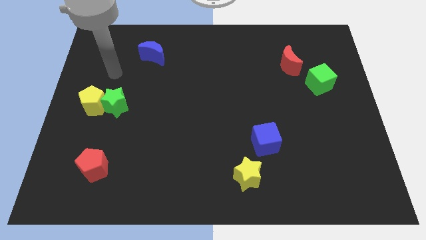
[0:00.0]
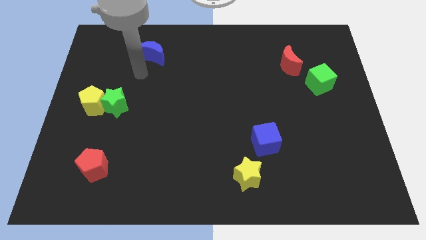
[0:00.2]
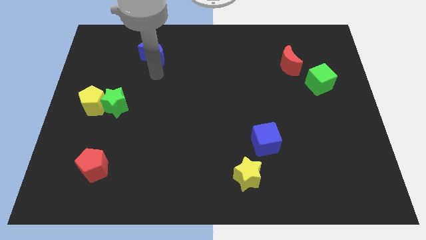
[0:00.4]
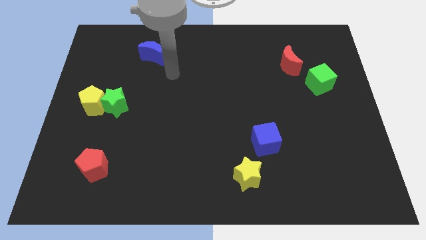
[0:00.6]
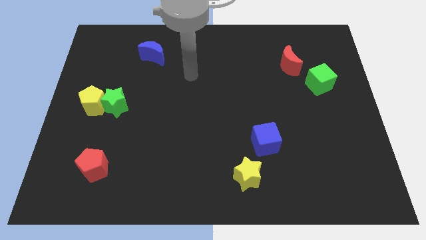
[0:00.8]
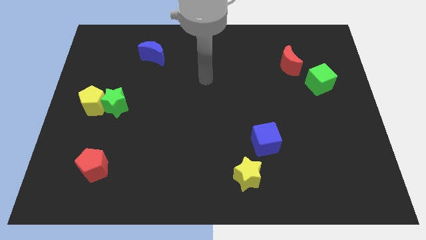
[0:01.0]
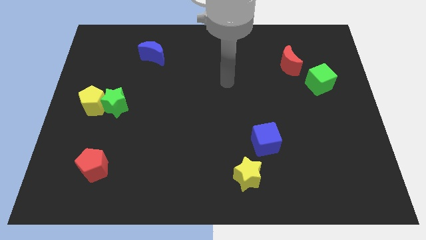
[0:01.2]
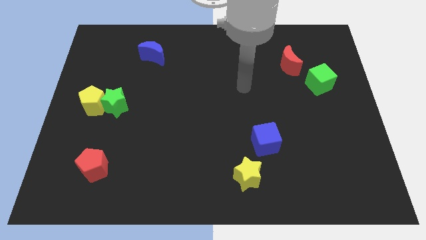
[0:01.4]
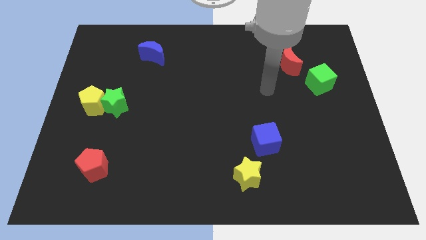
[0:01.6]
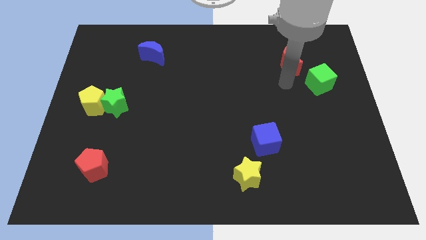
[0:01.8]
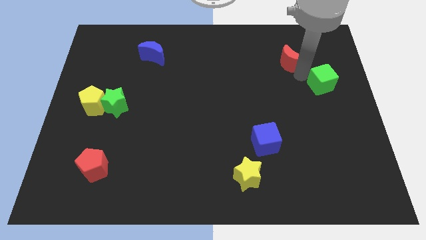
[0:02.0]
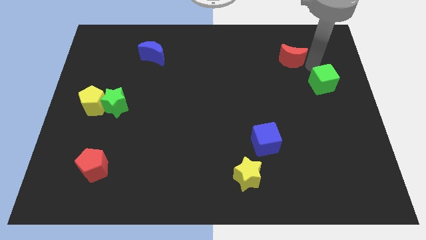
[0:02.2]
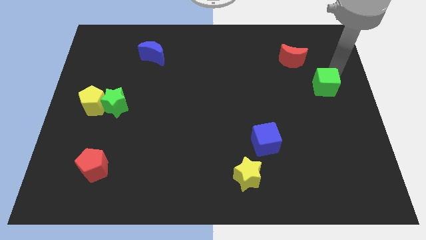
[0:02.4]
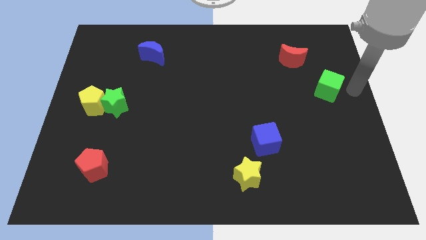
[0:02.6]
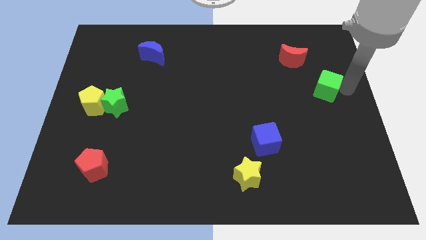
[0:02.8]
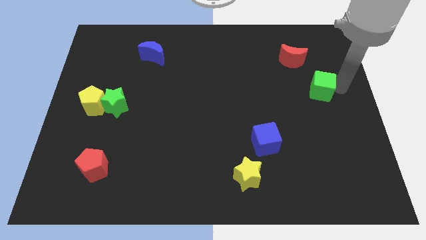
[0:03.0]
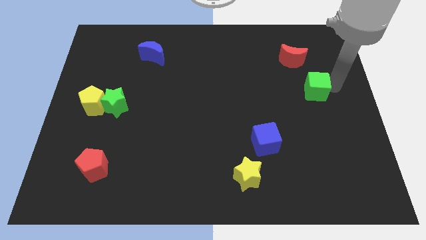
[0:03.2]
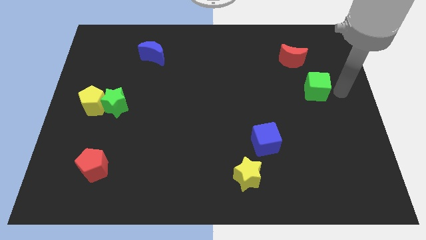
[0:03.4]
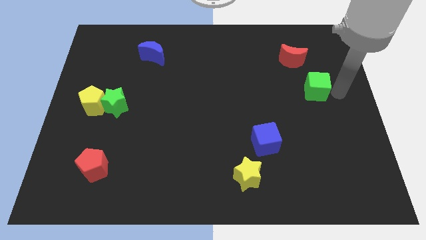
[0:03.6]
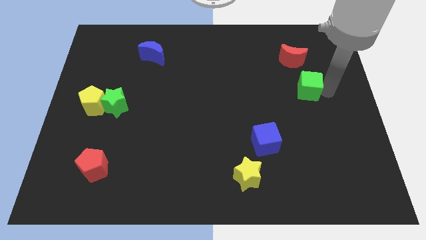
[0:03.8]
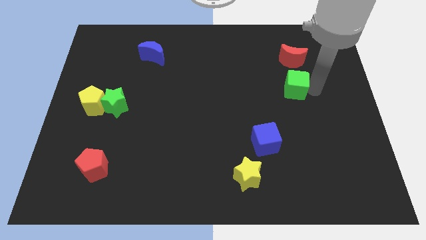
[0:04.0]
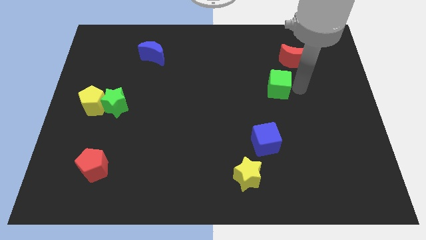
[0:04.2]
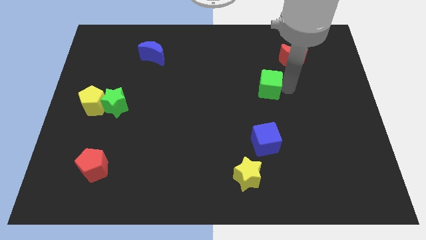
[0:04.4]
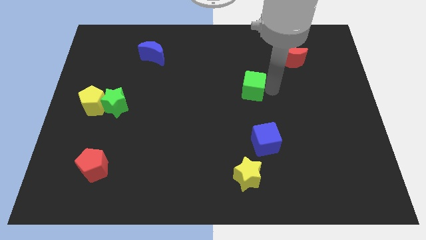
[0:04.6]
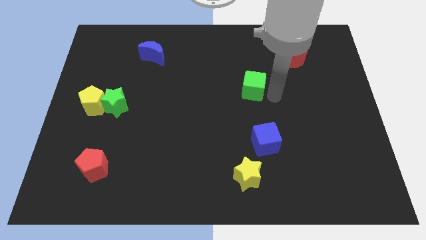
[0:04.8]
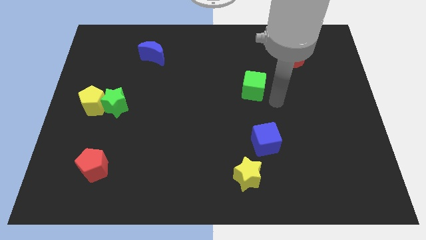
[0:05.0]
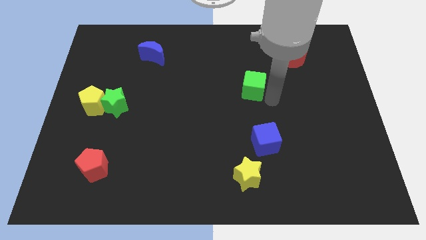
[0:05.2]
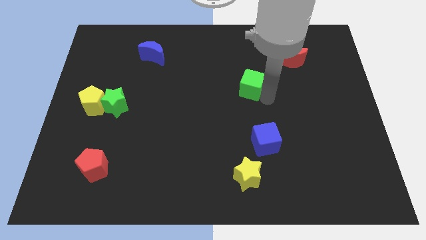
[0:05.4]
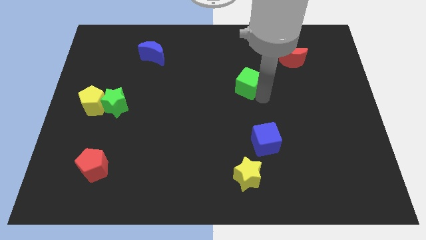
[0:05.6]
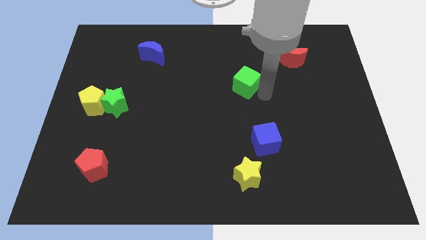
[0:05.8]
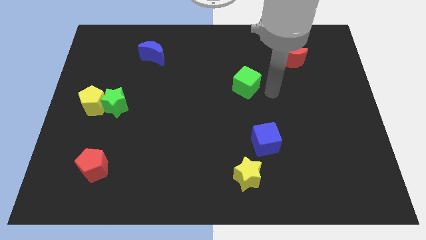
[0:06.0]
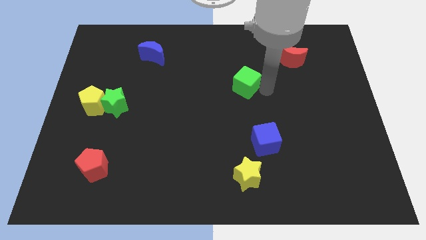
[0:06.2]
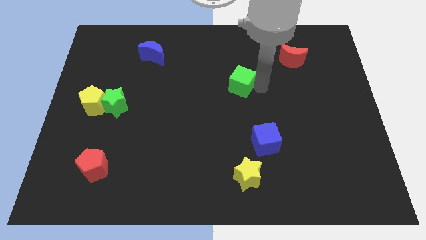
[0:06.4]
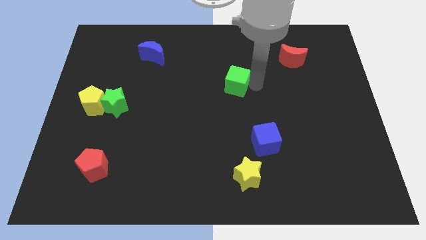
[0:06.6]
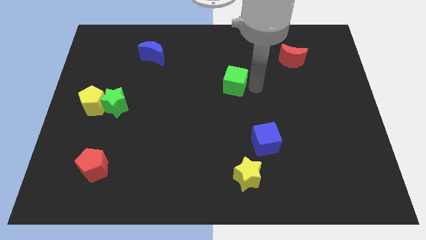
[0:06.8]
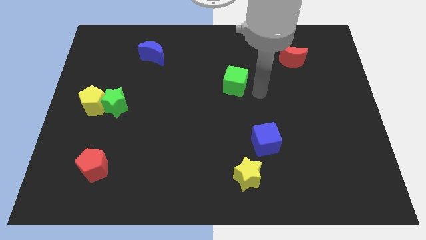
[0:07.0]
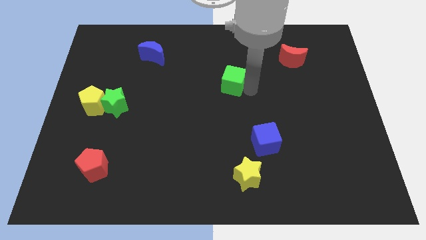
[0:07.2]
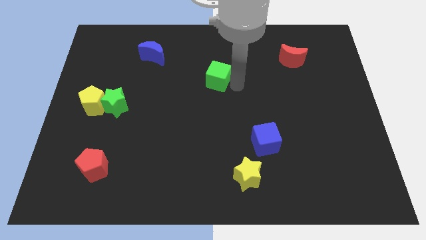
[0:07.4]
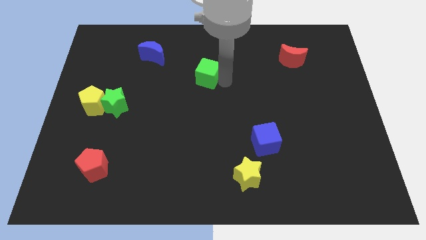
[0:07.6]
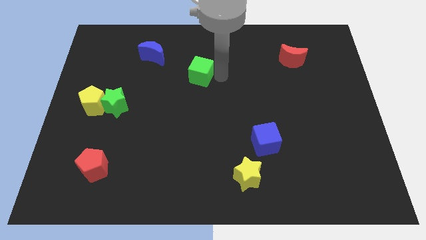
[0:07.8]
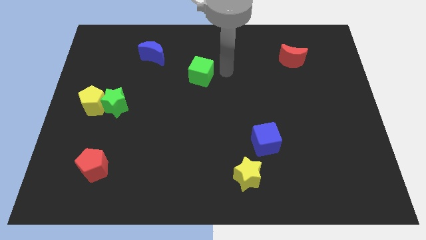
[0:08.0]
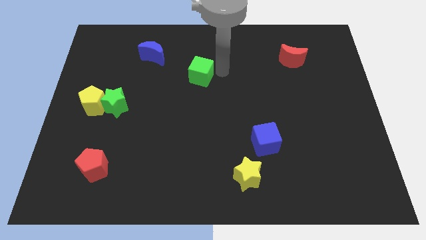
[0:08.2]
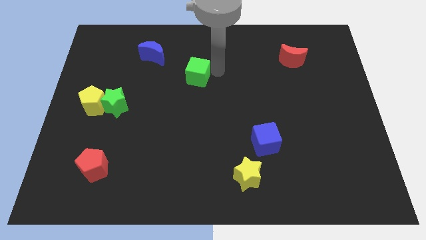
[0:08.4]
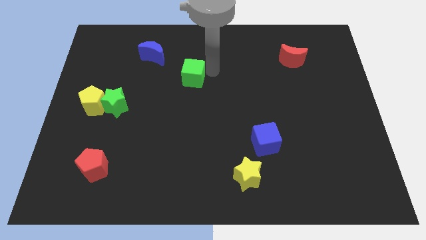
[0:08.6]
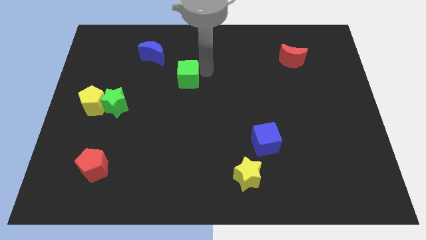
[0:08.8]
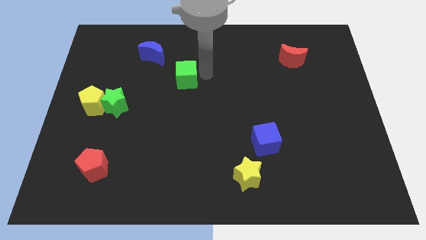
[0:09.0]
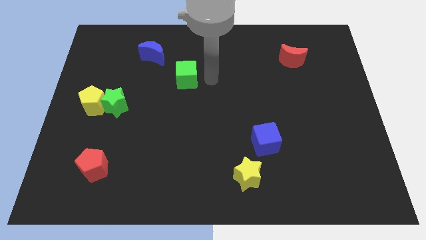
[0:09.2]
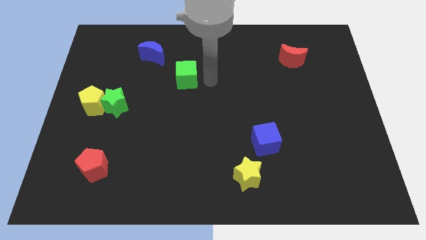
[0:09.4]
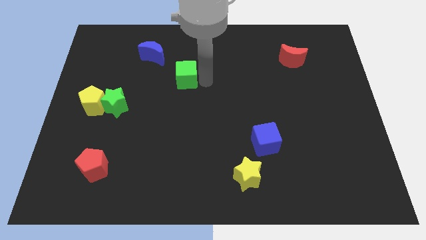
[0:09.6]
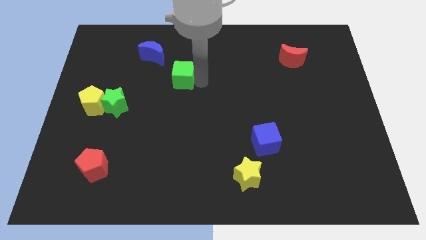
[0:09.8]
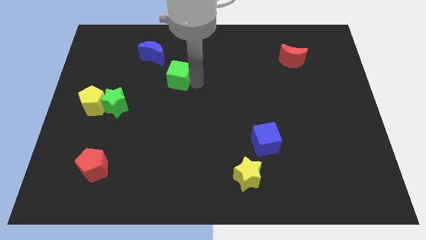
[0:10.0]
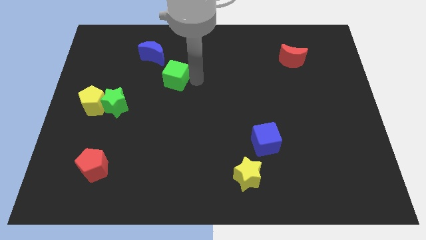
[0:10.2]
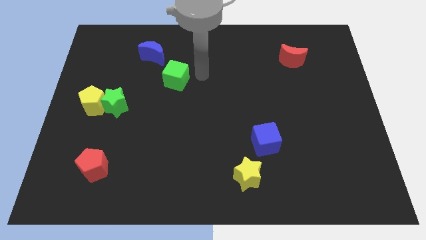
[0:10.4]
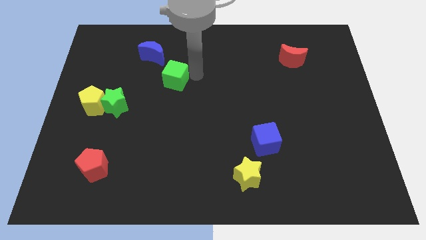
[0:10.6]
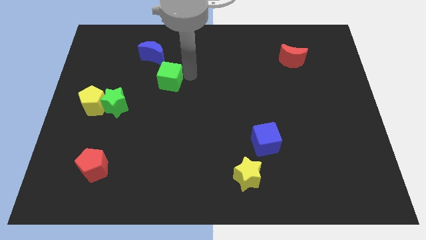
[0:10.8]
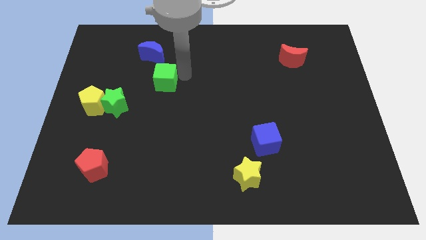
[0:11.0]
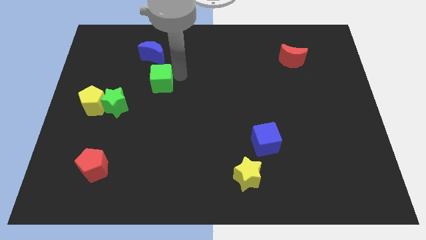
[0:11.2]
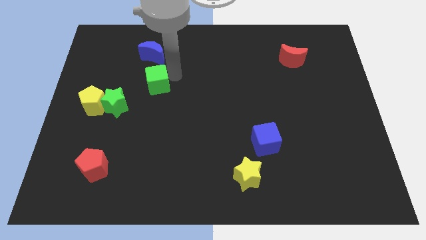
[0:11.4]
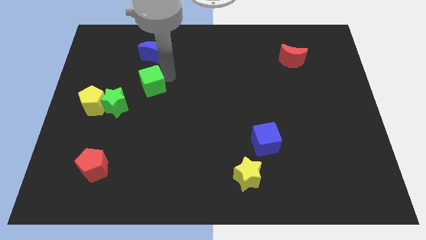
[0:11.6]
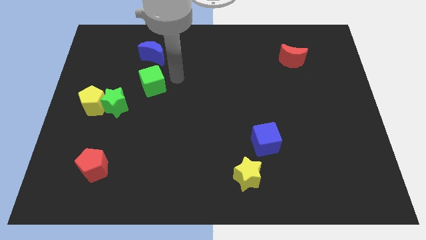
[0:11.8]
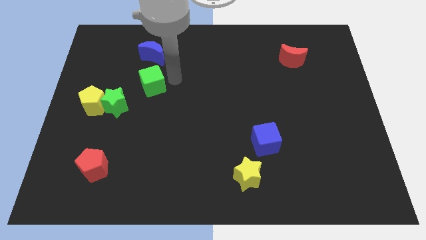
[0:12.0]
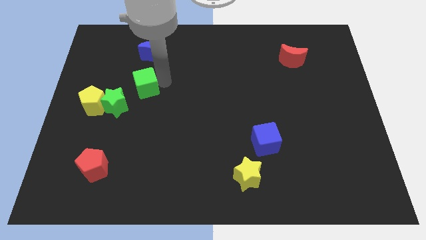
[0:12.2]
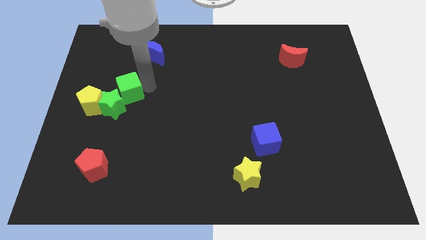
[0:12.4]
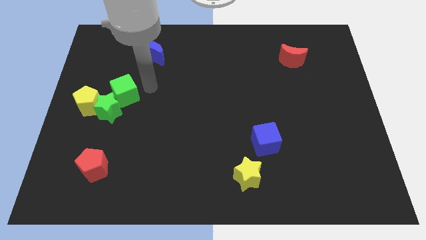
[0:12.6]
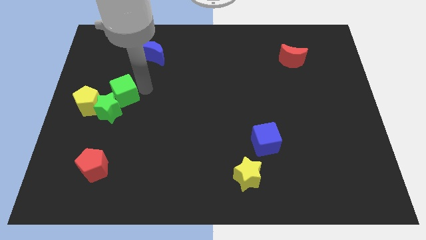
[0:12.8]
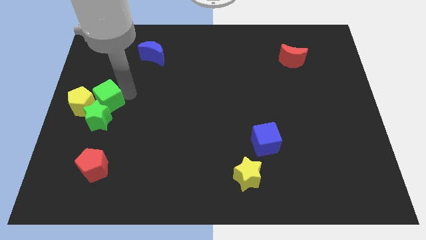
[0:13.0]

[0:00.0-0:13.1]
put the green cube to the yellow pentagon

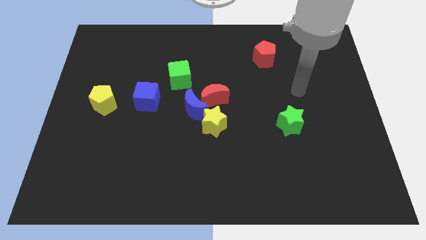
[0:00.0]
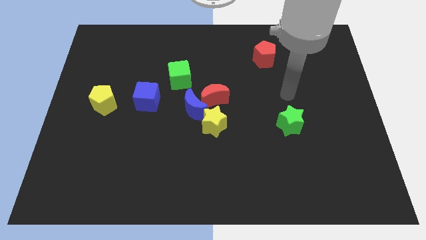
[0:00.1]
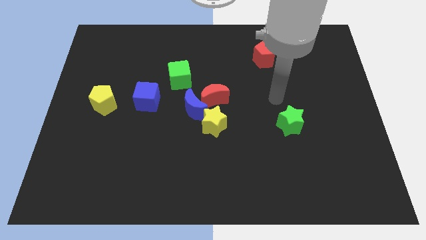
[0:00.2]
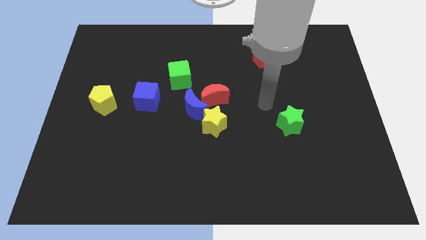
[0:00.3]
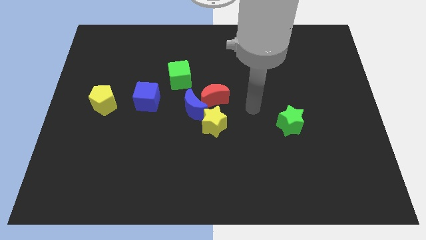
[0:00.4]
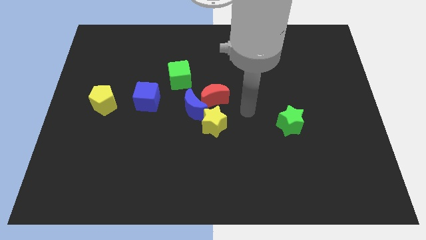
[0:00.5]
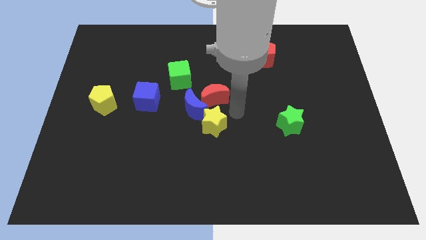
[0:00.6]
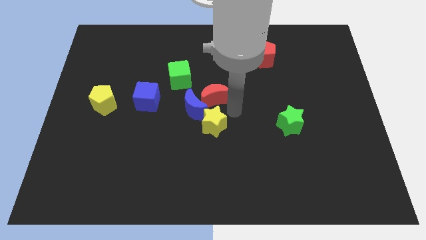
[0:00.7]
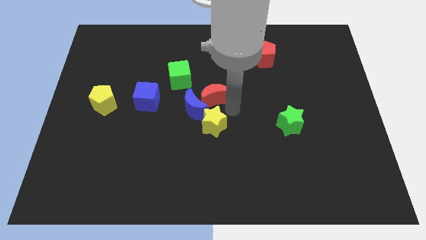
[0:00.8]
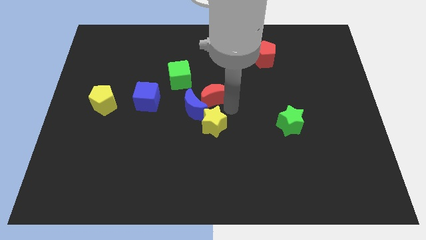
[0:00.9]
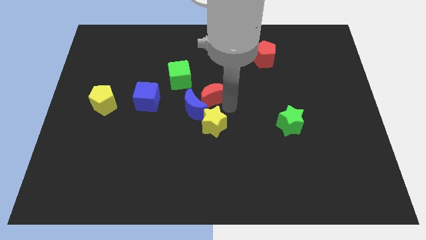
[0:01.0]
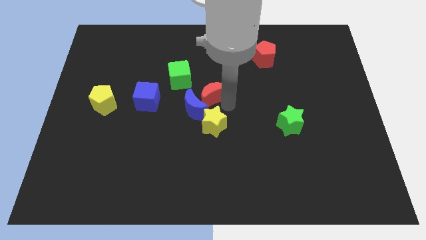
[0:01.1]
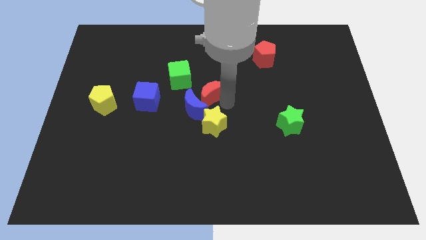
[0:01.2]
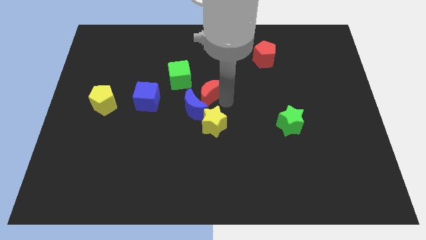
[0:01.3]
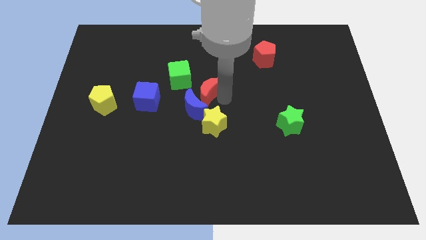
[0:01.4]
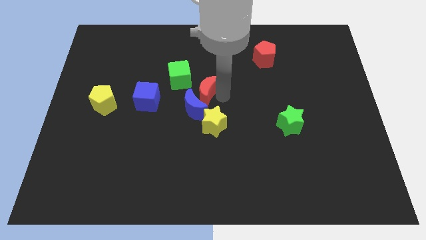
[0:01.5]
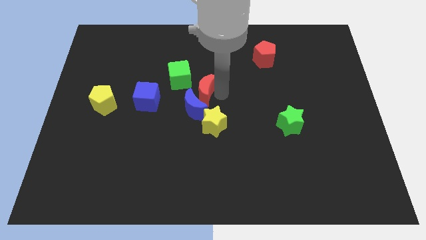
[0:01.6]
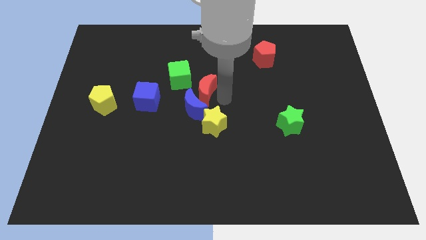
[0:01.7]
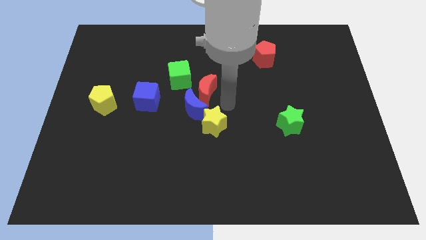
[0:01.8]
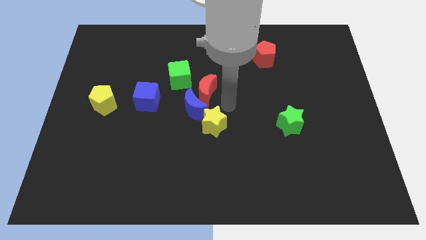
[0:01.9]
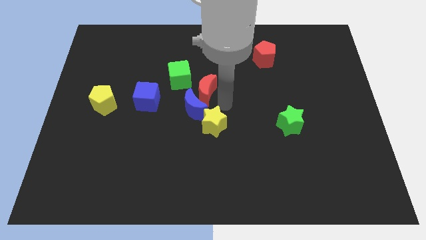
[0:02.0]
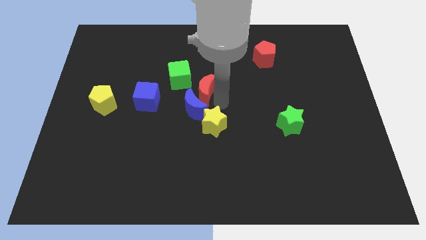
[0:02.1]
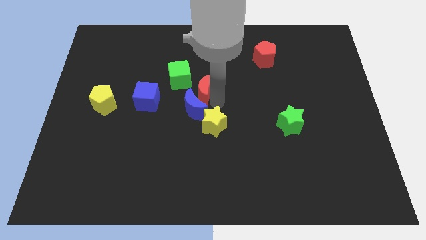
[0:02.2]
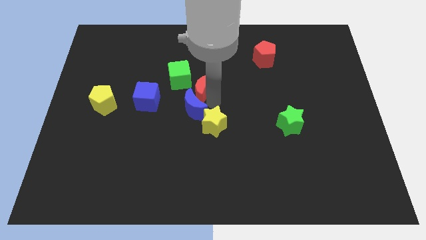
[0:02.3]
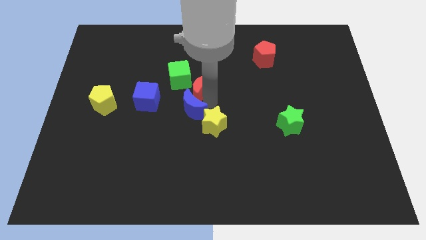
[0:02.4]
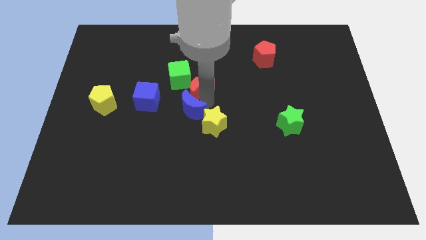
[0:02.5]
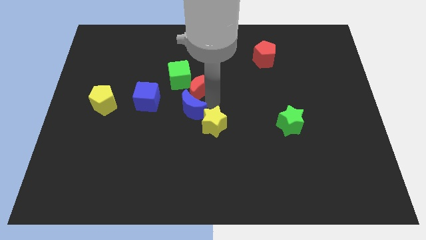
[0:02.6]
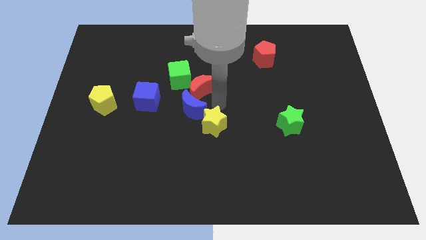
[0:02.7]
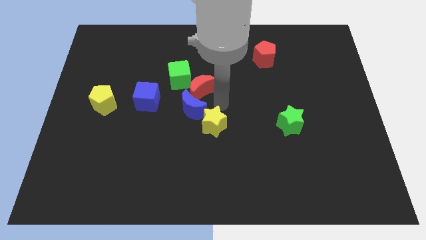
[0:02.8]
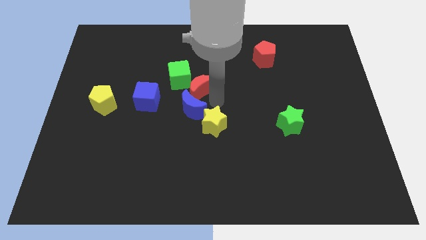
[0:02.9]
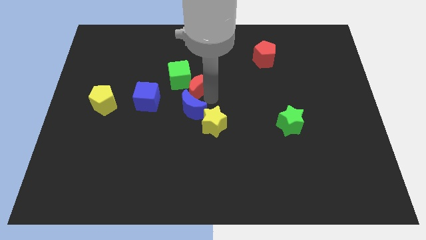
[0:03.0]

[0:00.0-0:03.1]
put the red moon towards the green cube
